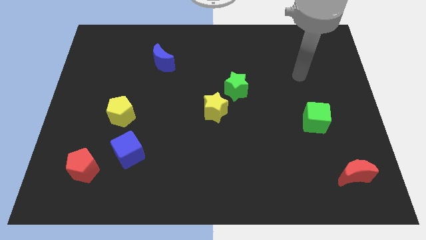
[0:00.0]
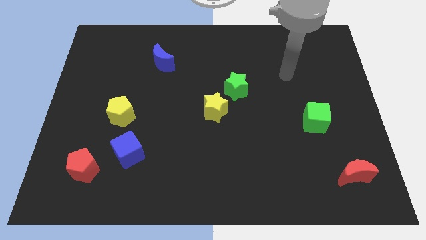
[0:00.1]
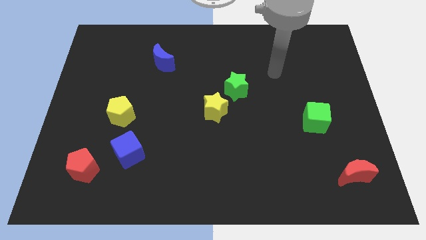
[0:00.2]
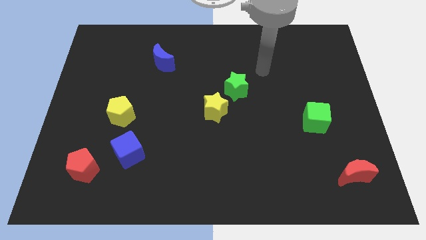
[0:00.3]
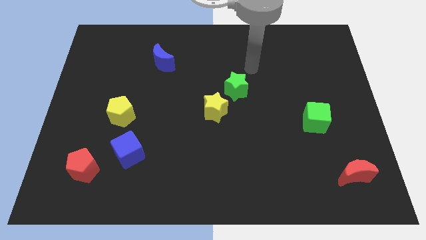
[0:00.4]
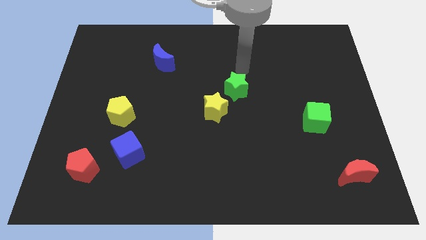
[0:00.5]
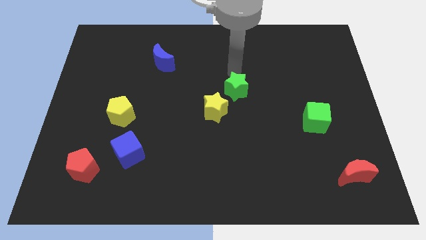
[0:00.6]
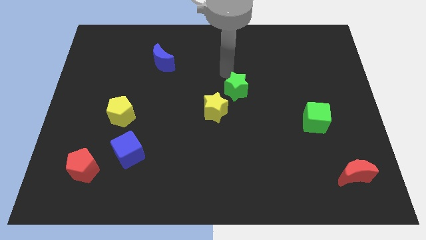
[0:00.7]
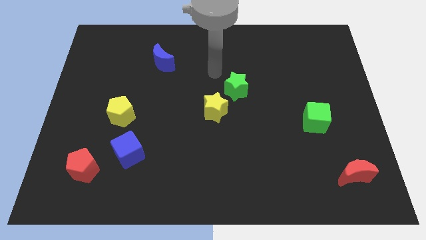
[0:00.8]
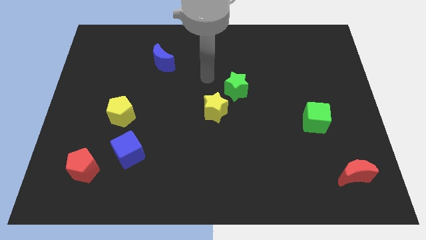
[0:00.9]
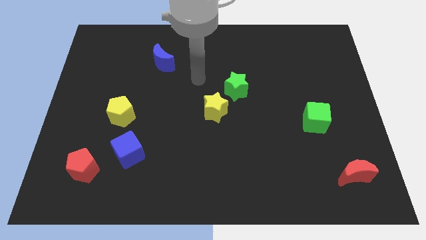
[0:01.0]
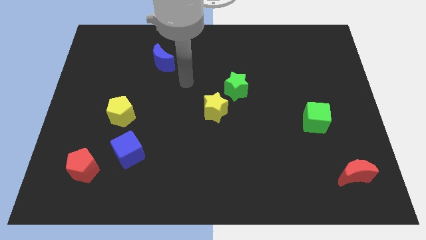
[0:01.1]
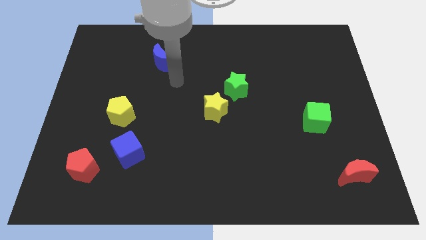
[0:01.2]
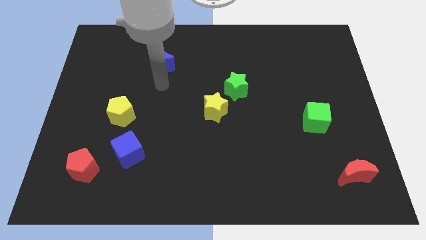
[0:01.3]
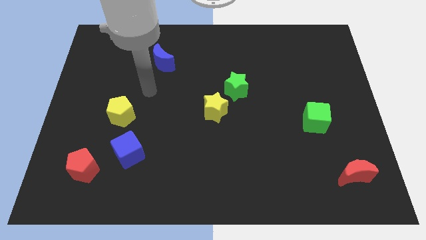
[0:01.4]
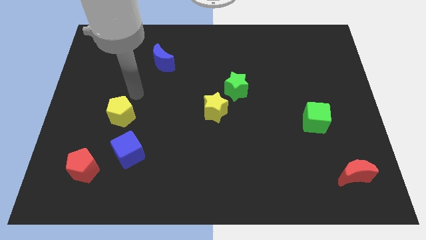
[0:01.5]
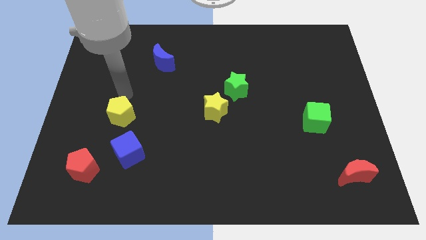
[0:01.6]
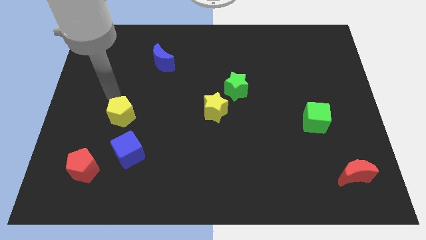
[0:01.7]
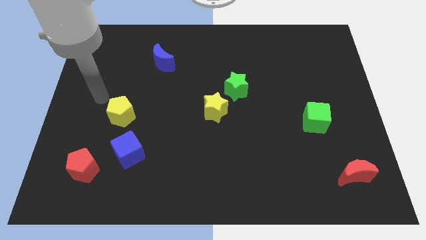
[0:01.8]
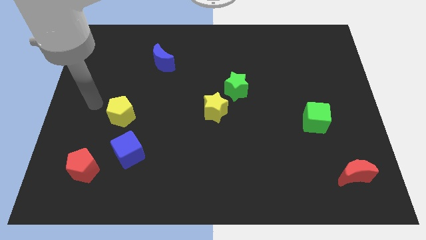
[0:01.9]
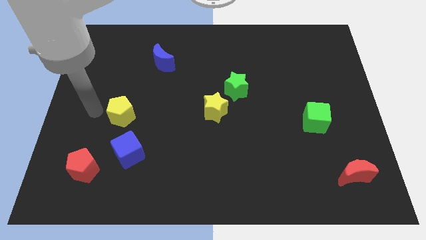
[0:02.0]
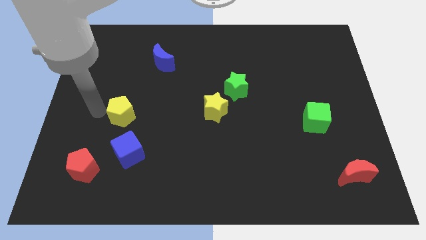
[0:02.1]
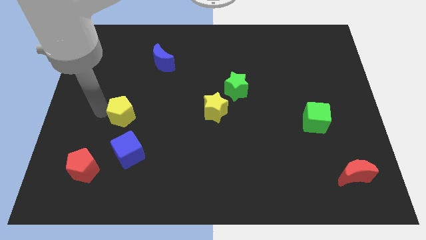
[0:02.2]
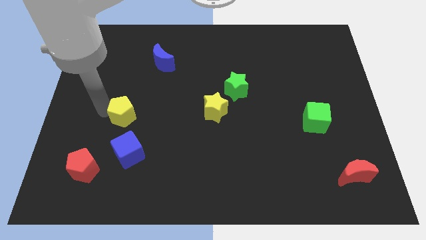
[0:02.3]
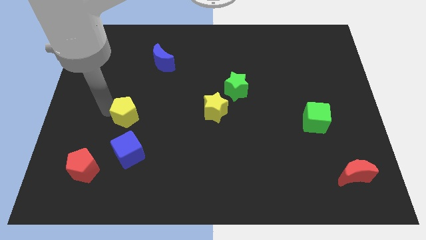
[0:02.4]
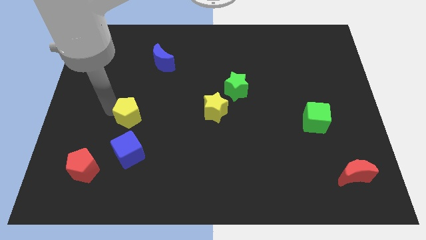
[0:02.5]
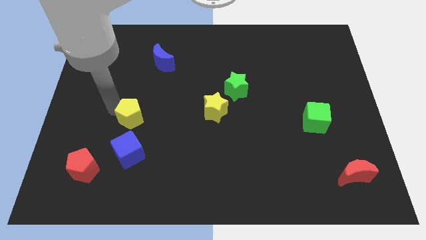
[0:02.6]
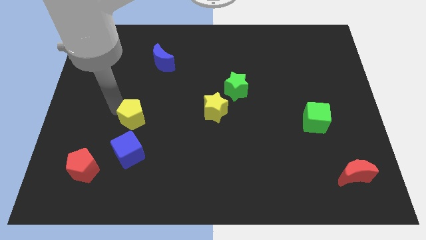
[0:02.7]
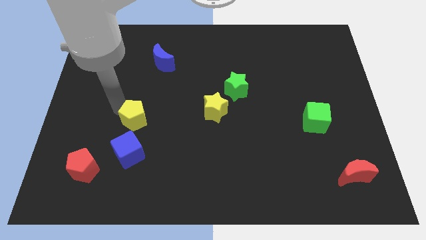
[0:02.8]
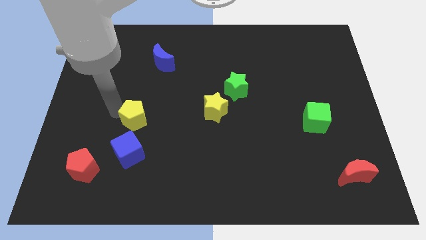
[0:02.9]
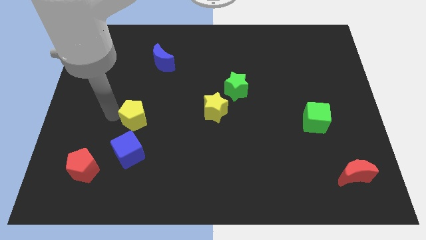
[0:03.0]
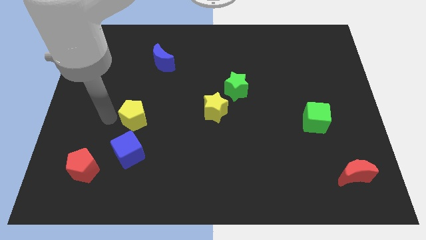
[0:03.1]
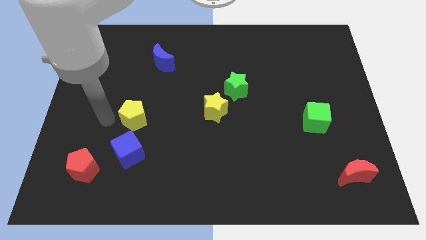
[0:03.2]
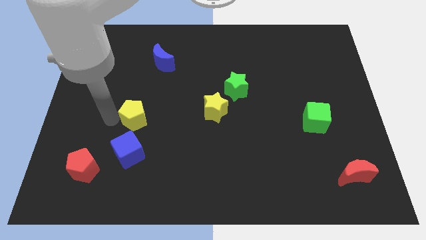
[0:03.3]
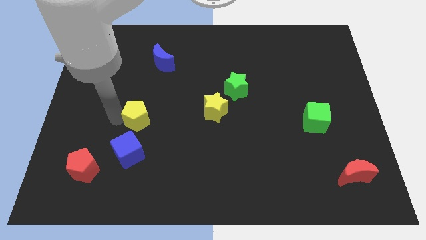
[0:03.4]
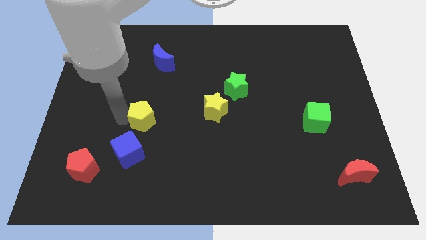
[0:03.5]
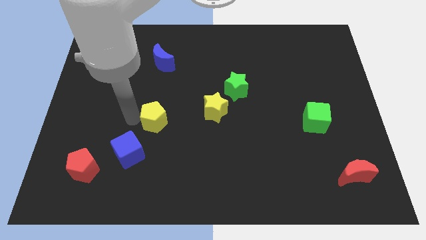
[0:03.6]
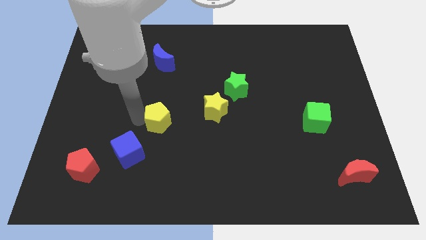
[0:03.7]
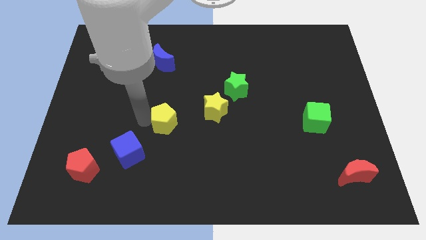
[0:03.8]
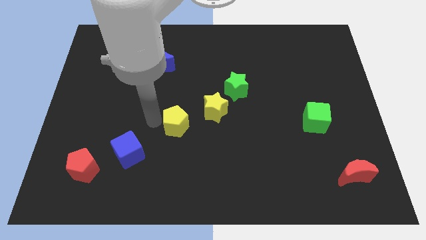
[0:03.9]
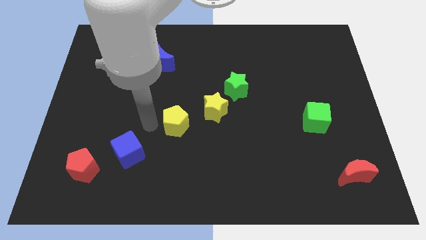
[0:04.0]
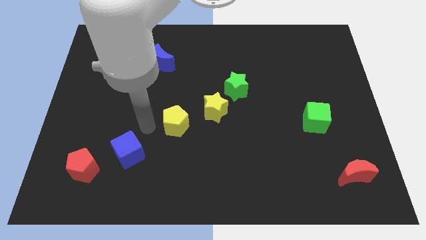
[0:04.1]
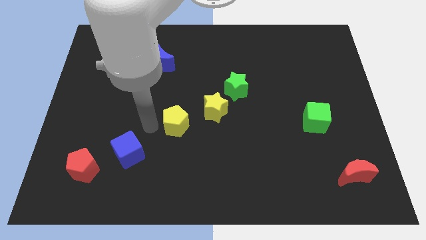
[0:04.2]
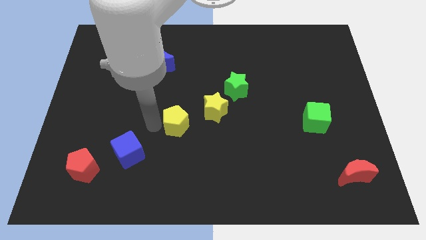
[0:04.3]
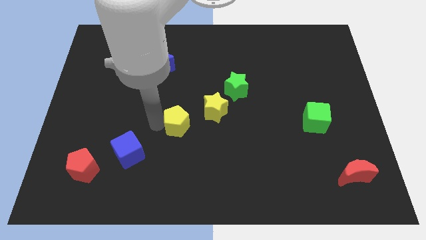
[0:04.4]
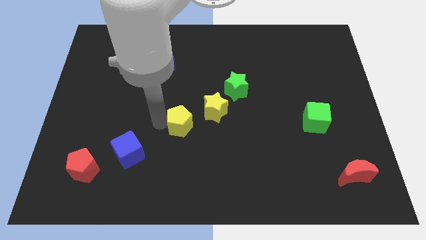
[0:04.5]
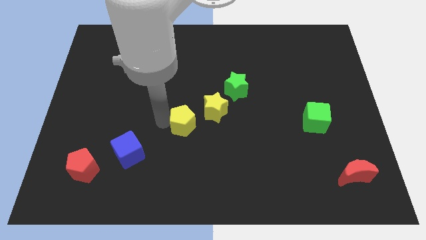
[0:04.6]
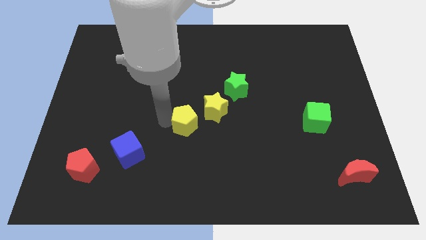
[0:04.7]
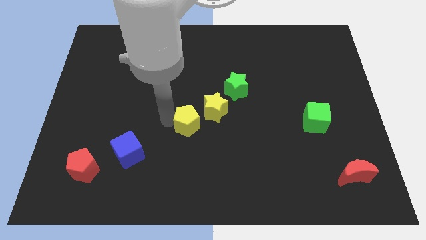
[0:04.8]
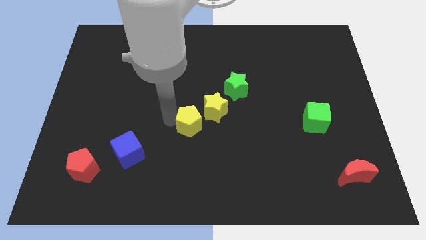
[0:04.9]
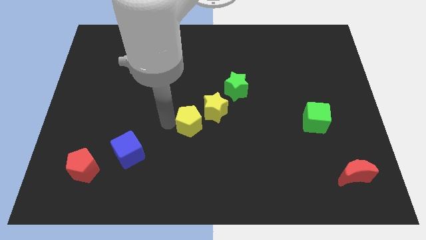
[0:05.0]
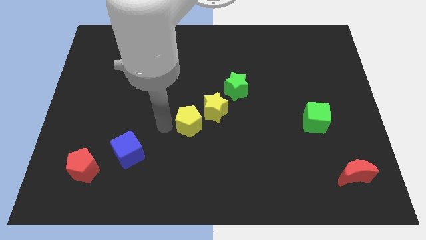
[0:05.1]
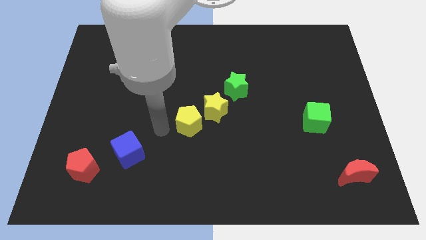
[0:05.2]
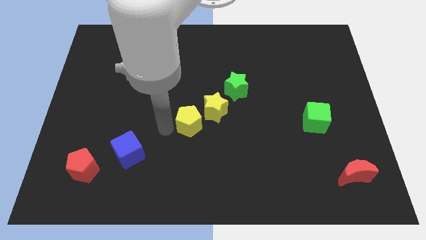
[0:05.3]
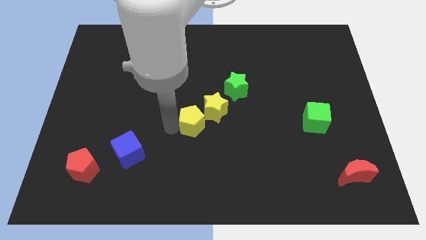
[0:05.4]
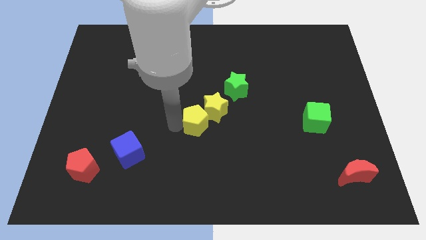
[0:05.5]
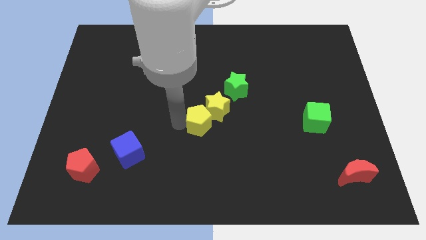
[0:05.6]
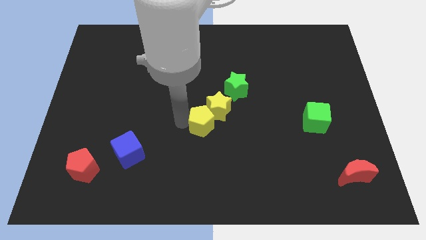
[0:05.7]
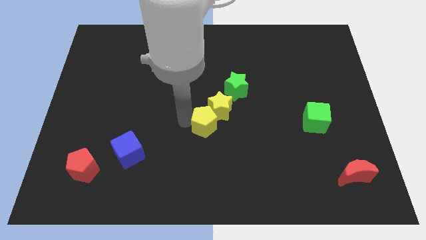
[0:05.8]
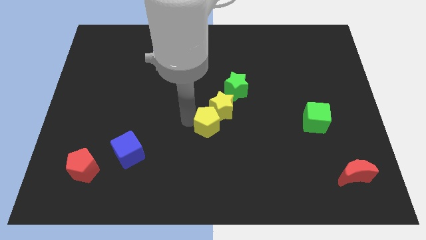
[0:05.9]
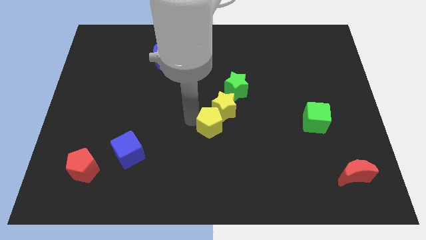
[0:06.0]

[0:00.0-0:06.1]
move the yellow pentagon right

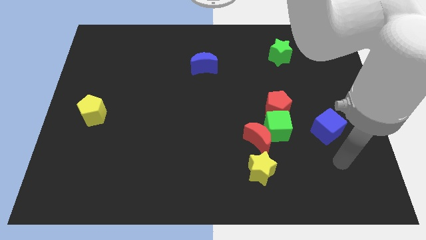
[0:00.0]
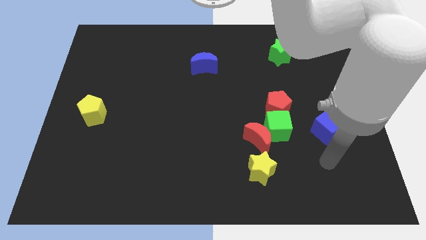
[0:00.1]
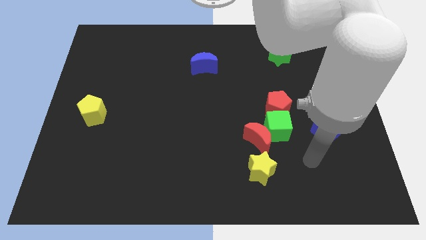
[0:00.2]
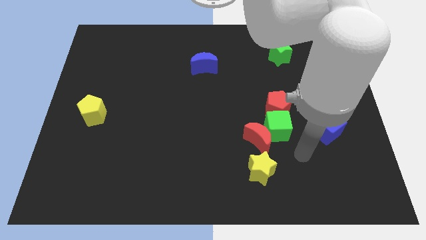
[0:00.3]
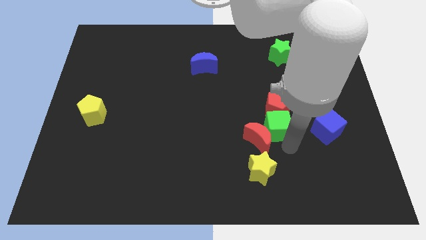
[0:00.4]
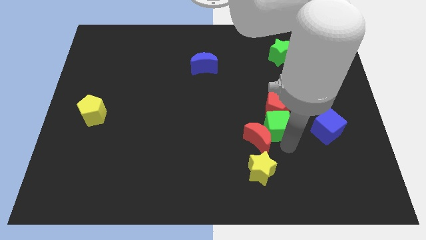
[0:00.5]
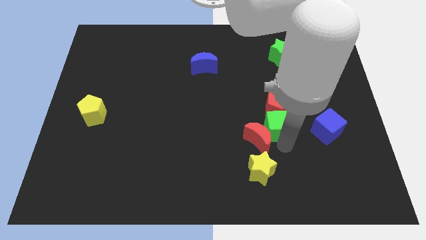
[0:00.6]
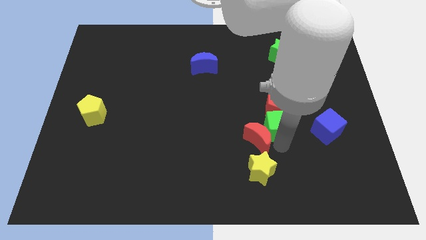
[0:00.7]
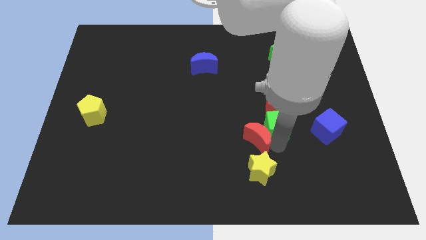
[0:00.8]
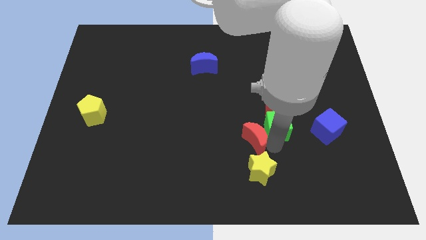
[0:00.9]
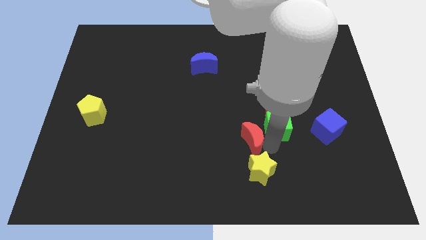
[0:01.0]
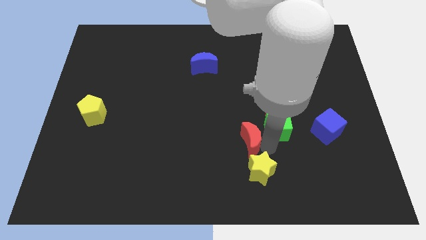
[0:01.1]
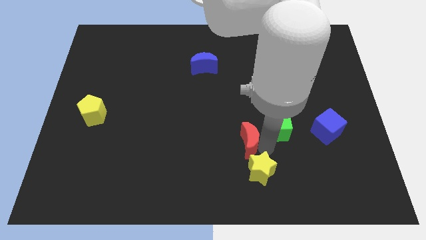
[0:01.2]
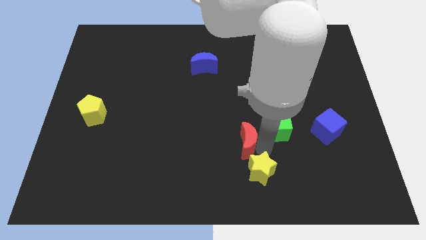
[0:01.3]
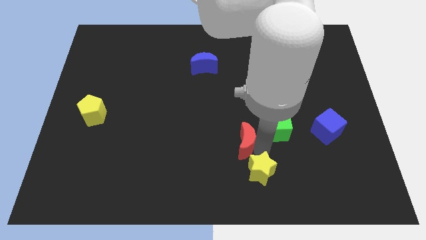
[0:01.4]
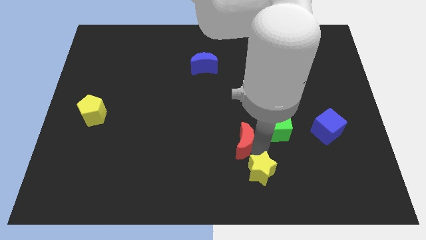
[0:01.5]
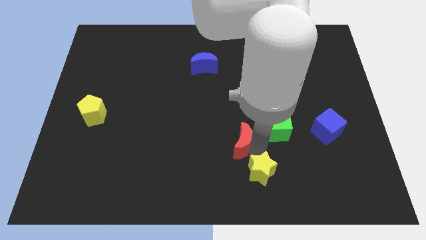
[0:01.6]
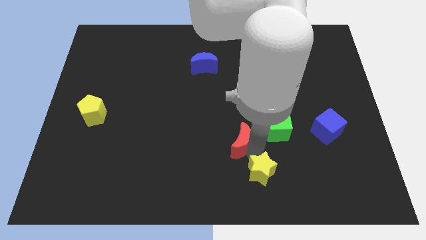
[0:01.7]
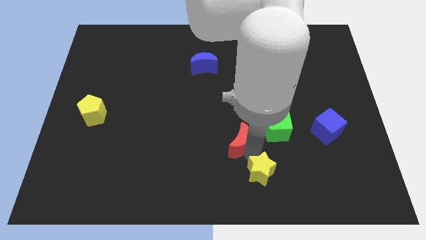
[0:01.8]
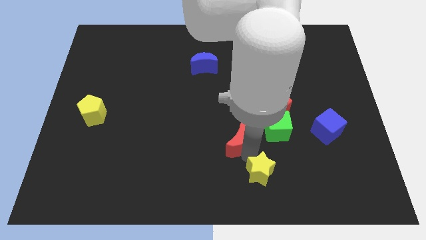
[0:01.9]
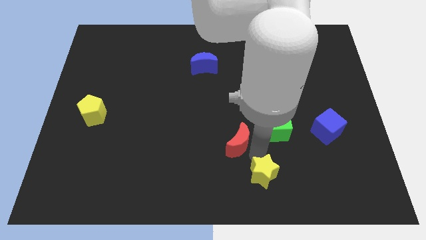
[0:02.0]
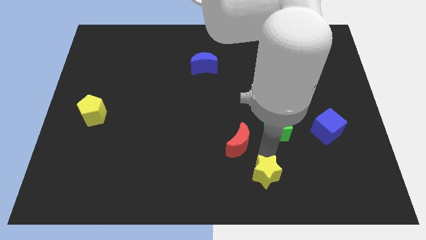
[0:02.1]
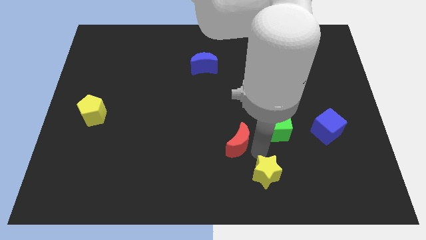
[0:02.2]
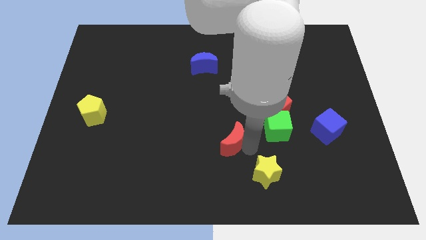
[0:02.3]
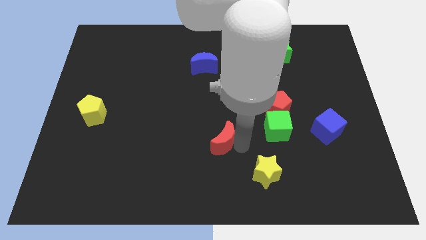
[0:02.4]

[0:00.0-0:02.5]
move the red moon a bit to the left
